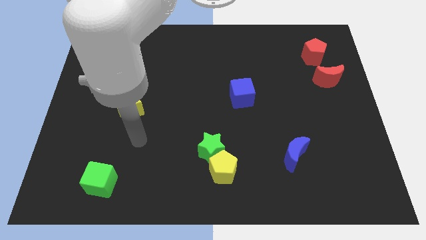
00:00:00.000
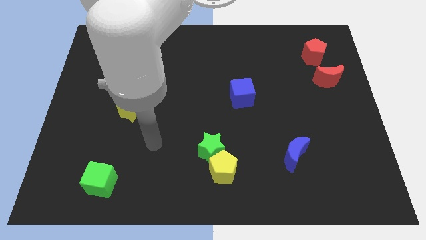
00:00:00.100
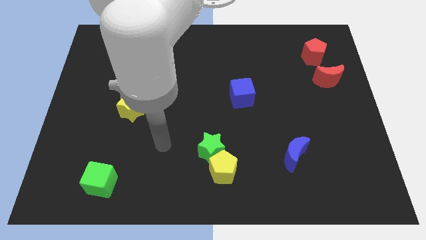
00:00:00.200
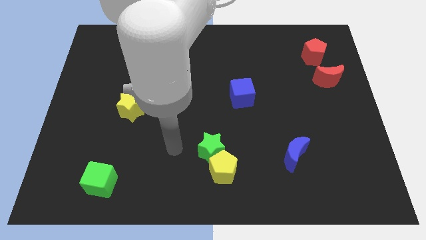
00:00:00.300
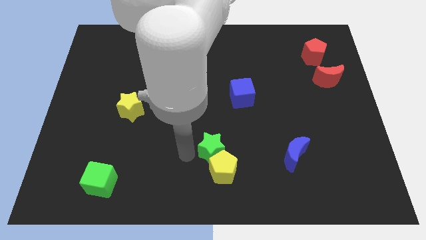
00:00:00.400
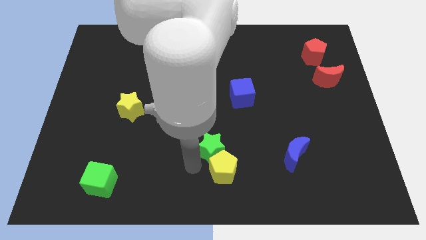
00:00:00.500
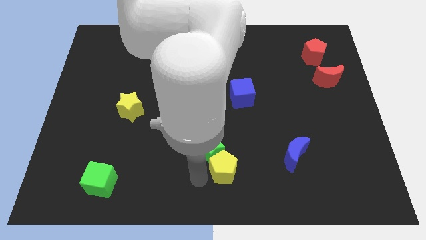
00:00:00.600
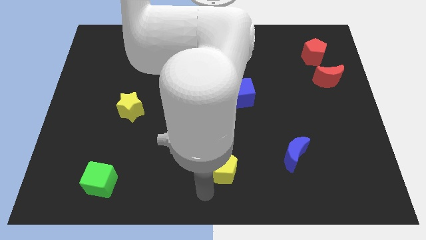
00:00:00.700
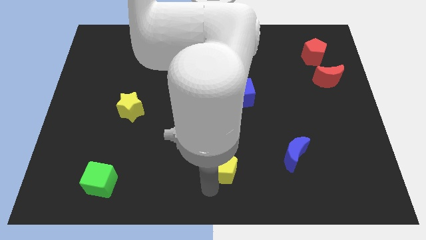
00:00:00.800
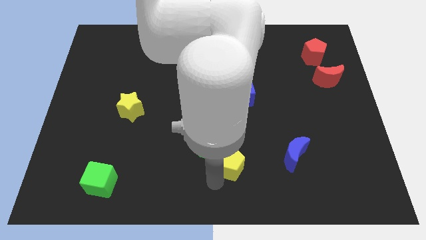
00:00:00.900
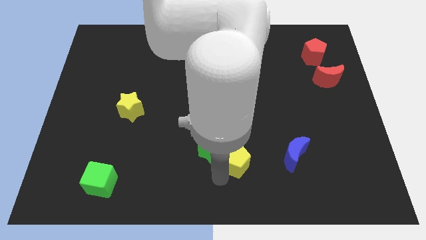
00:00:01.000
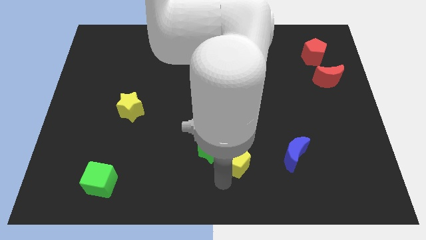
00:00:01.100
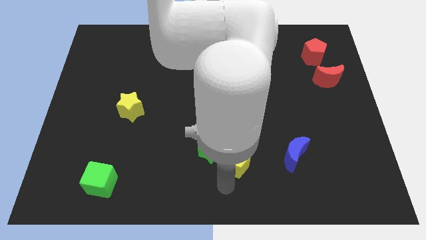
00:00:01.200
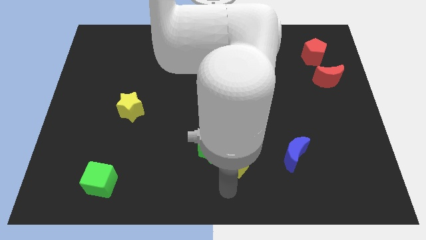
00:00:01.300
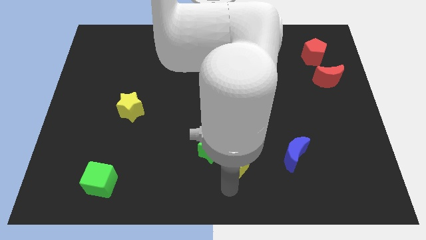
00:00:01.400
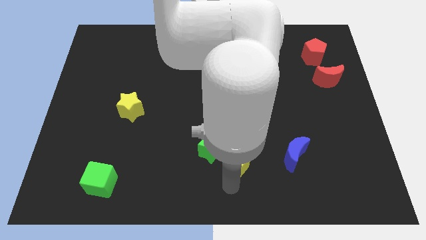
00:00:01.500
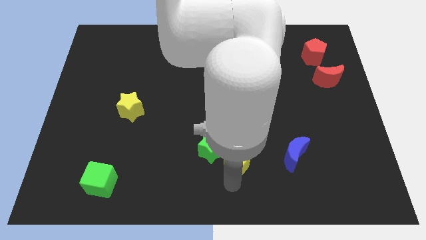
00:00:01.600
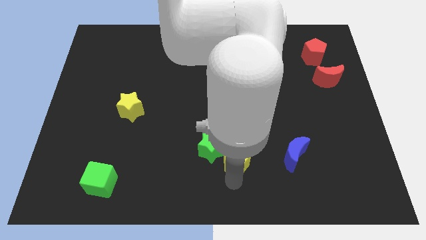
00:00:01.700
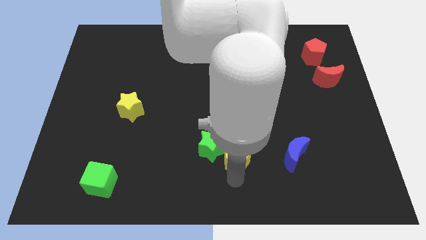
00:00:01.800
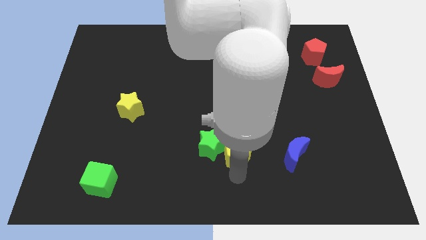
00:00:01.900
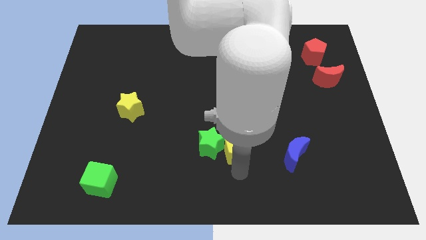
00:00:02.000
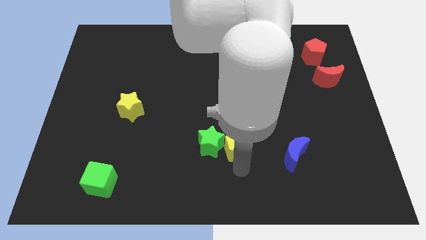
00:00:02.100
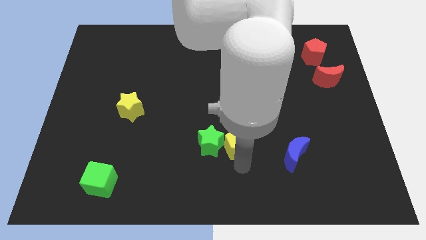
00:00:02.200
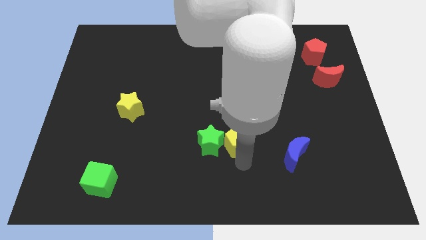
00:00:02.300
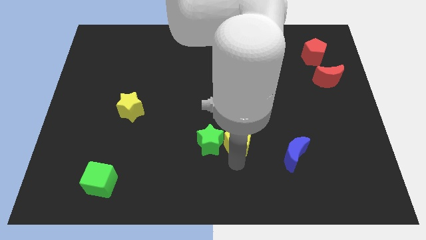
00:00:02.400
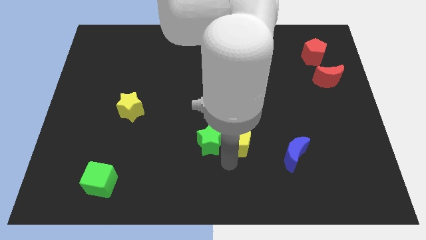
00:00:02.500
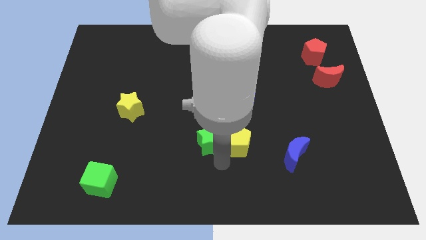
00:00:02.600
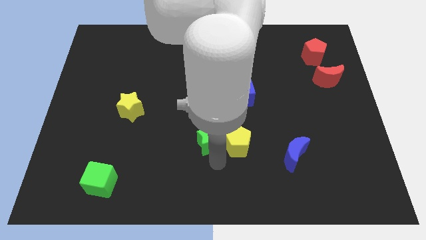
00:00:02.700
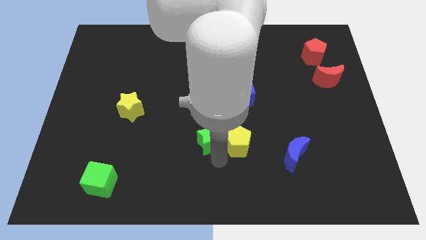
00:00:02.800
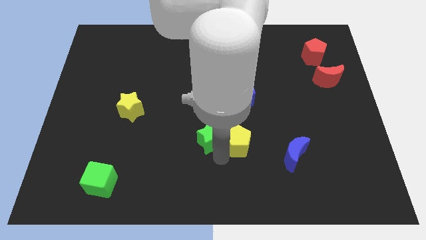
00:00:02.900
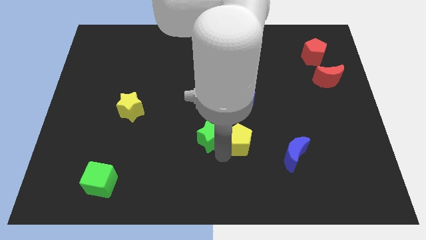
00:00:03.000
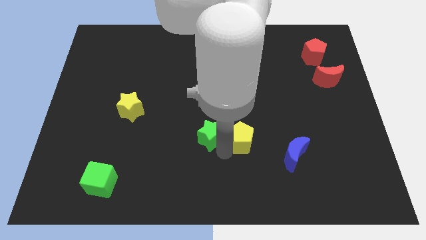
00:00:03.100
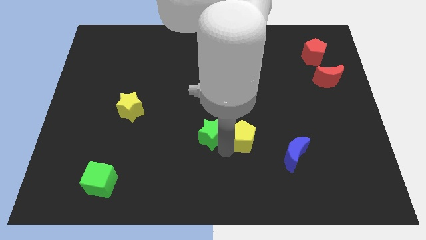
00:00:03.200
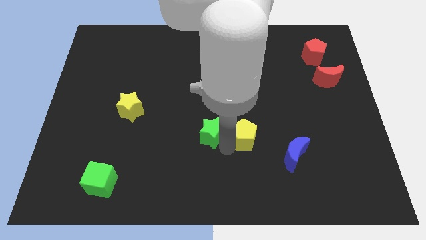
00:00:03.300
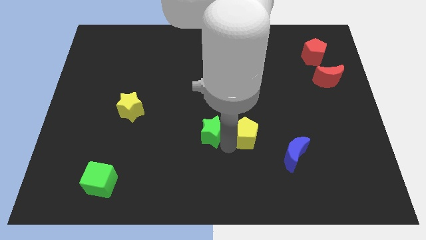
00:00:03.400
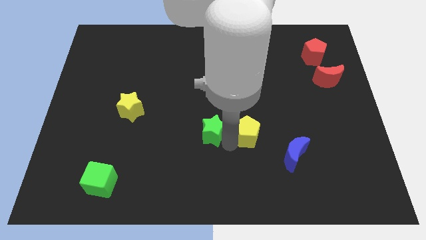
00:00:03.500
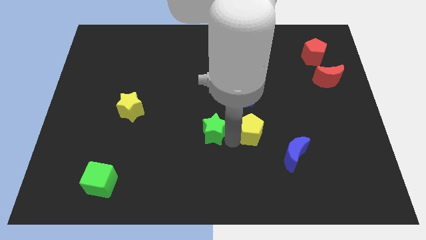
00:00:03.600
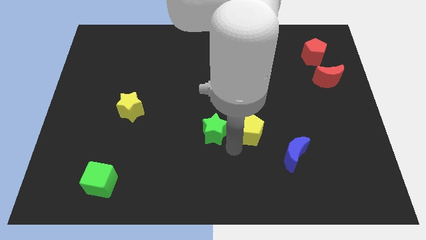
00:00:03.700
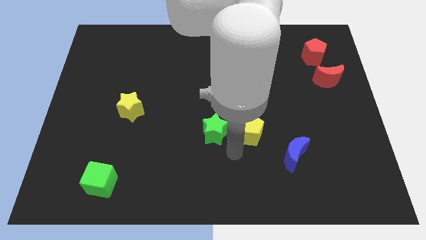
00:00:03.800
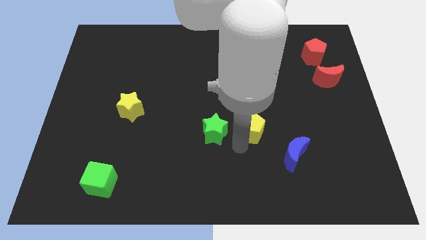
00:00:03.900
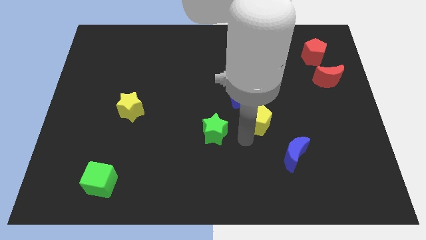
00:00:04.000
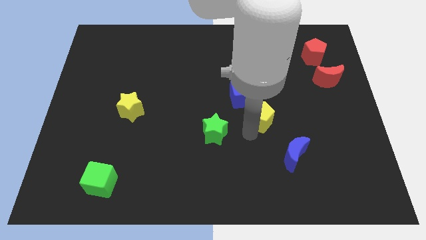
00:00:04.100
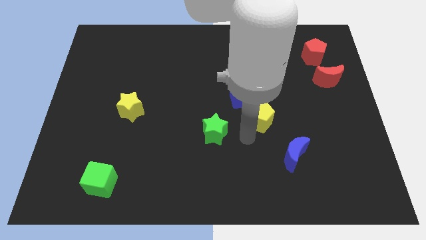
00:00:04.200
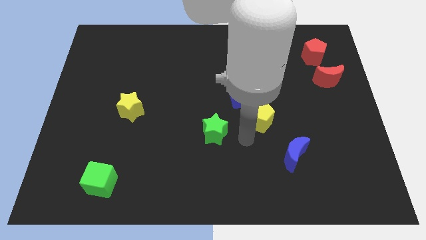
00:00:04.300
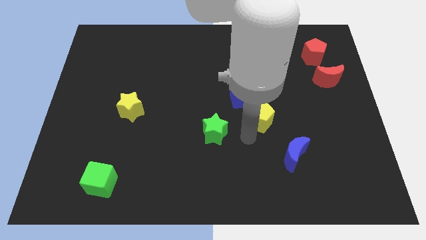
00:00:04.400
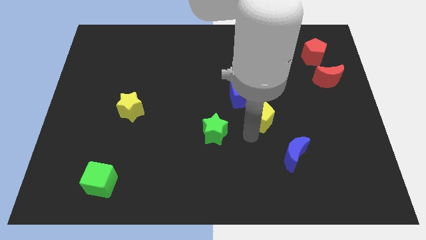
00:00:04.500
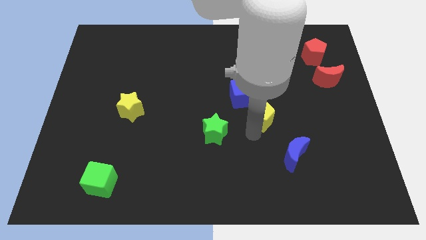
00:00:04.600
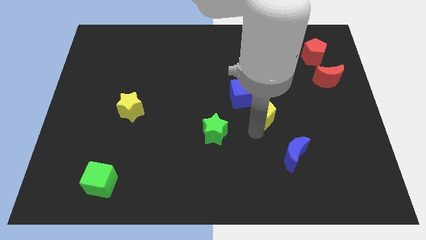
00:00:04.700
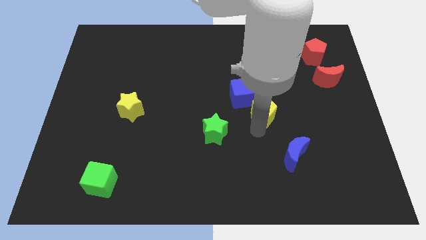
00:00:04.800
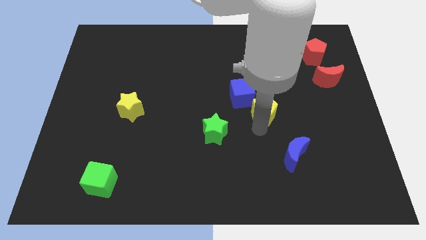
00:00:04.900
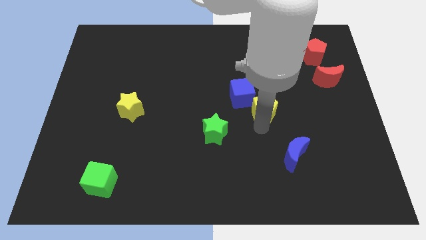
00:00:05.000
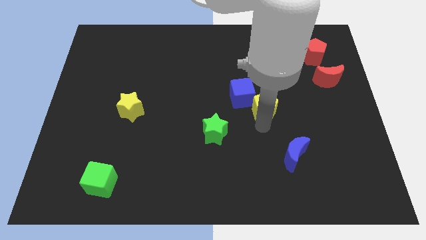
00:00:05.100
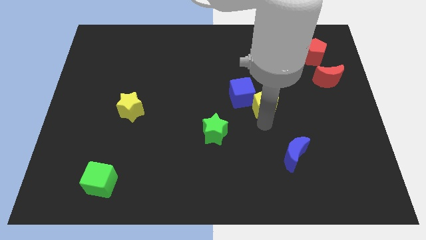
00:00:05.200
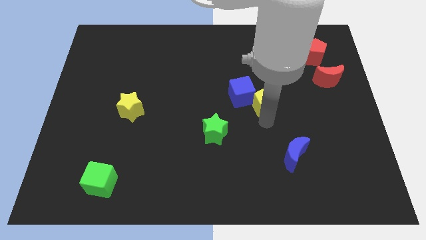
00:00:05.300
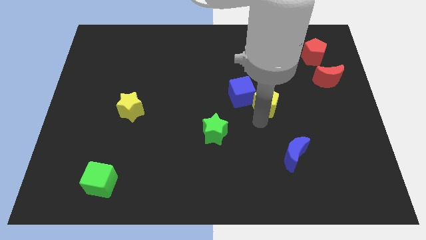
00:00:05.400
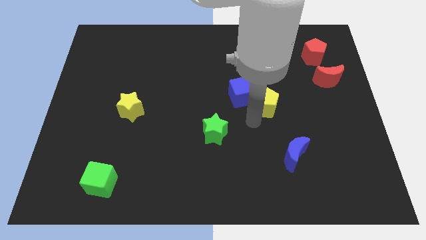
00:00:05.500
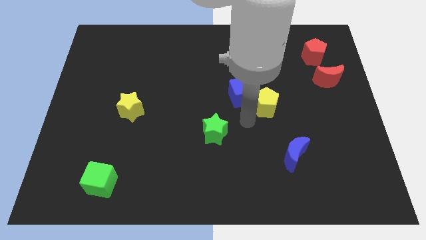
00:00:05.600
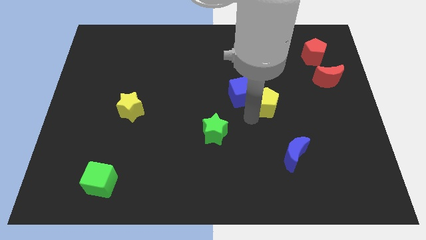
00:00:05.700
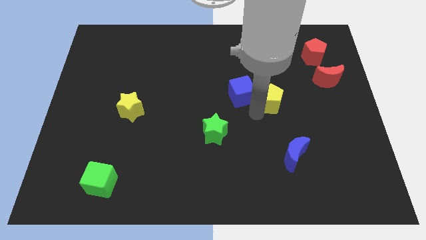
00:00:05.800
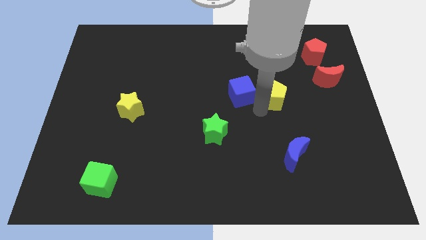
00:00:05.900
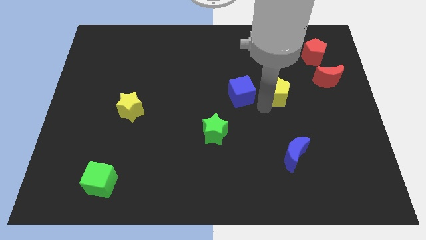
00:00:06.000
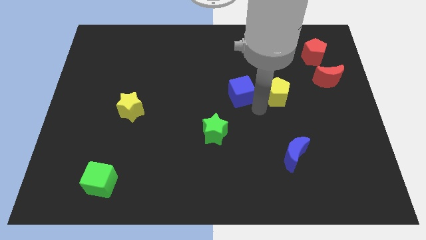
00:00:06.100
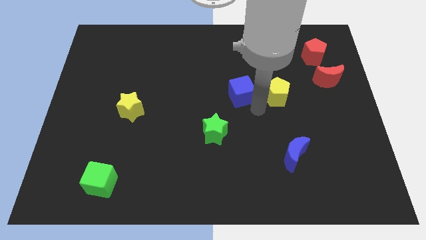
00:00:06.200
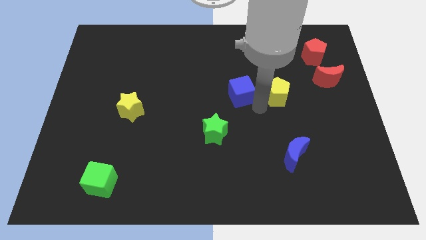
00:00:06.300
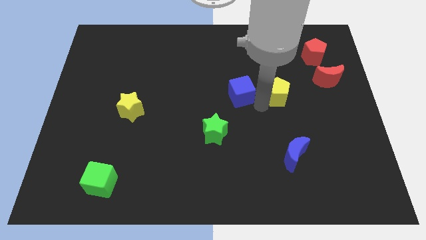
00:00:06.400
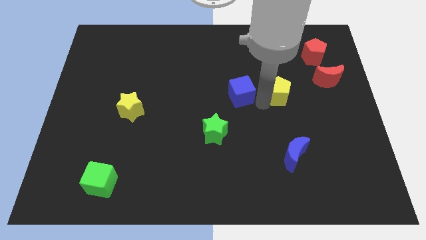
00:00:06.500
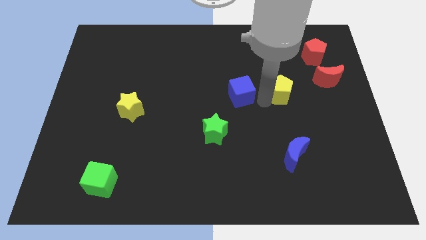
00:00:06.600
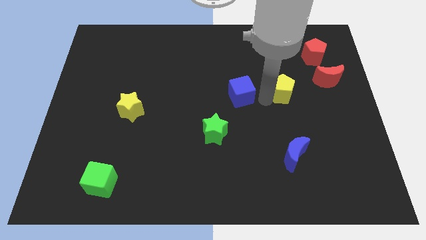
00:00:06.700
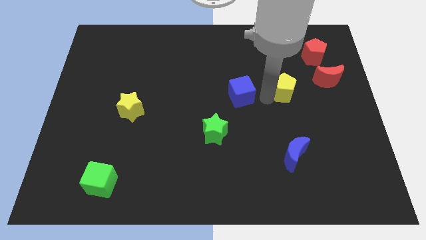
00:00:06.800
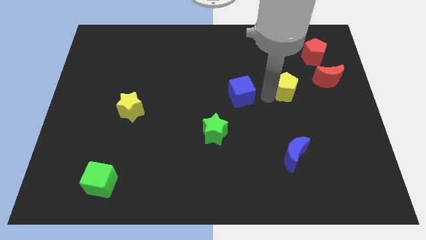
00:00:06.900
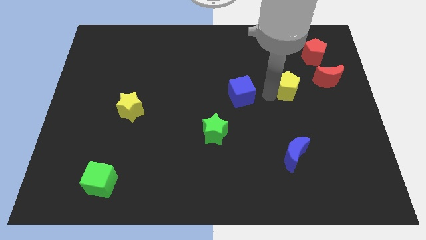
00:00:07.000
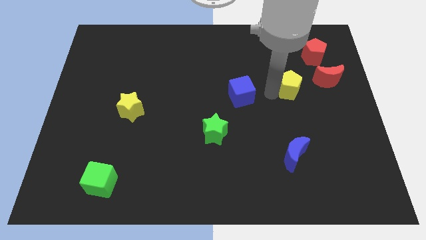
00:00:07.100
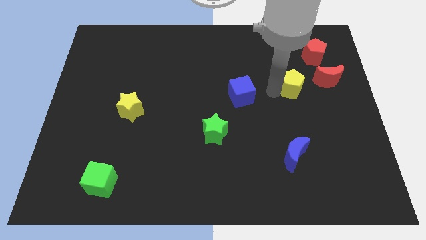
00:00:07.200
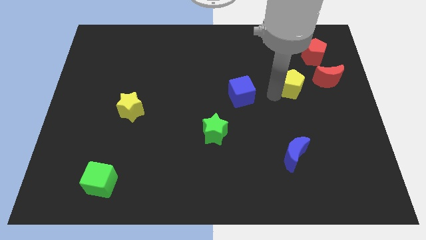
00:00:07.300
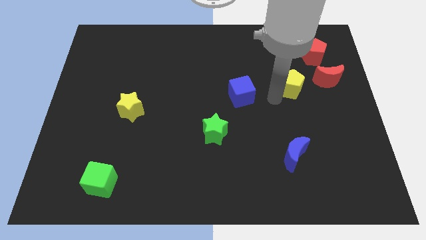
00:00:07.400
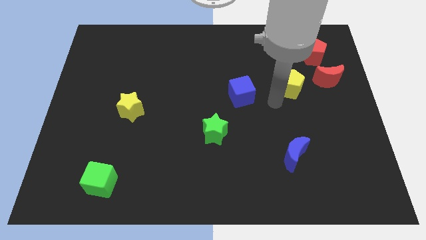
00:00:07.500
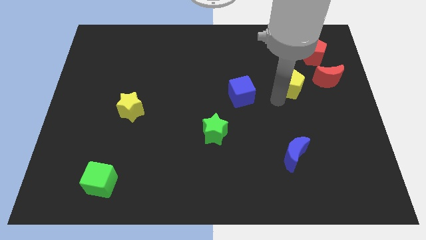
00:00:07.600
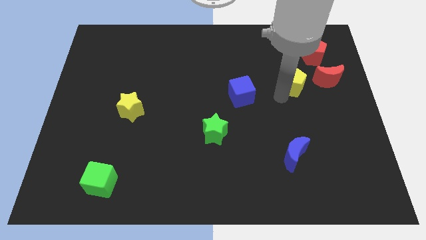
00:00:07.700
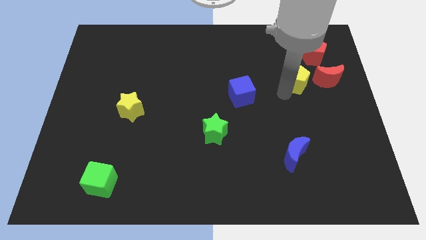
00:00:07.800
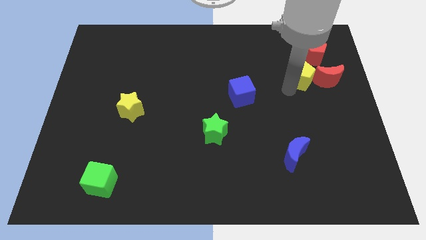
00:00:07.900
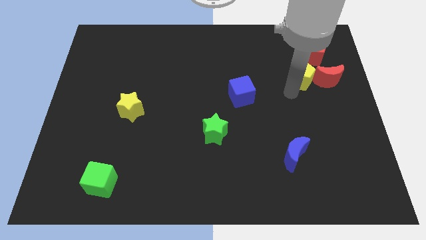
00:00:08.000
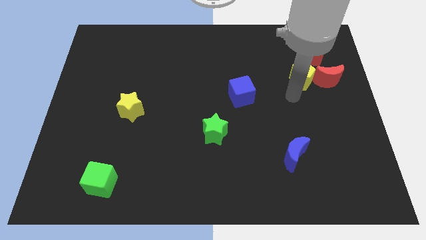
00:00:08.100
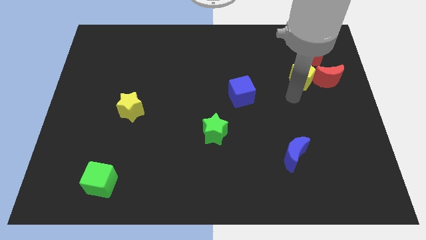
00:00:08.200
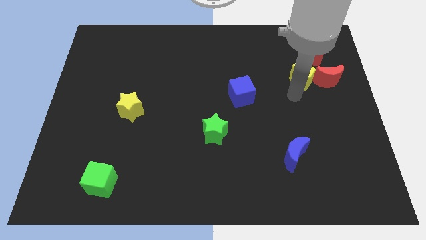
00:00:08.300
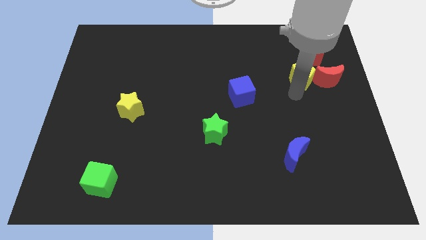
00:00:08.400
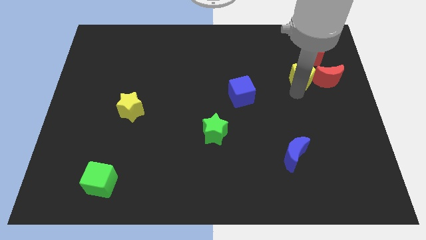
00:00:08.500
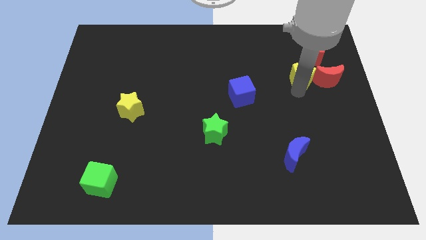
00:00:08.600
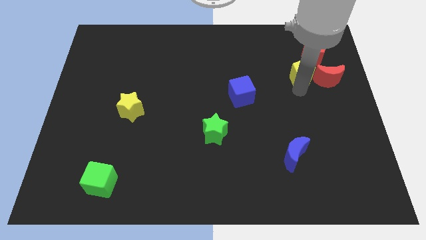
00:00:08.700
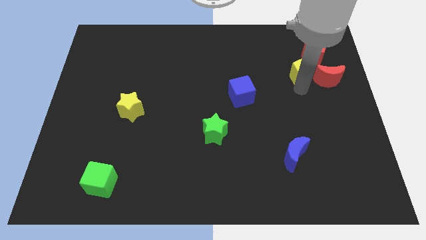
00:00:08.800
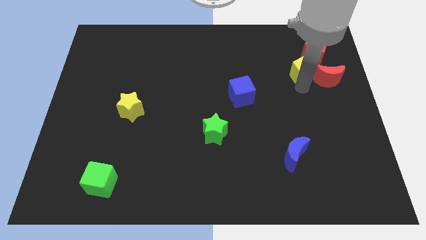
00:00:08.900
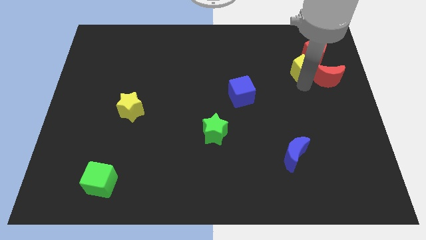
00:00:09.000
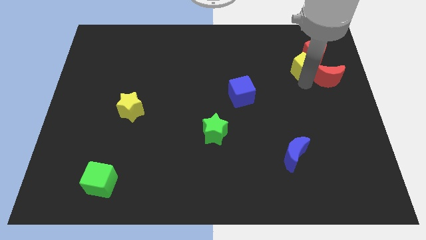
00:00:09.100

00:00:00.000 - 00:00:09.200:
move the yellow pentagon close to the red pentagon
